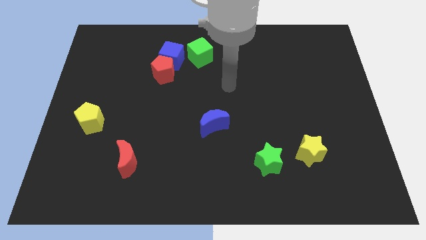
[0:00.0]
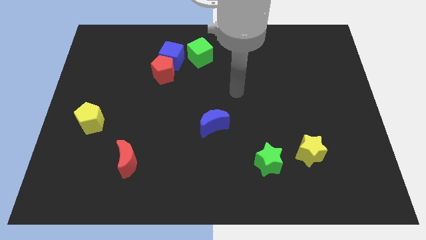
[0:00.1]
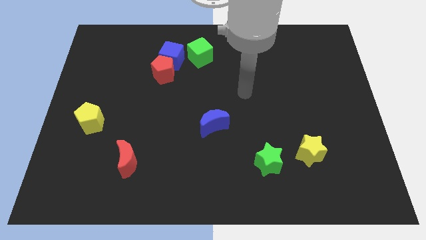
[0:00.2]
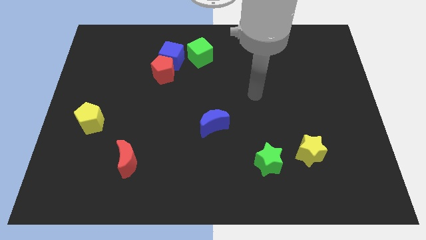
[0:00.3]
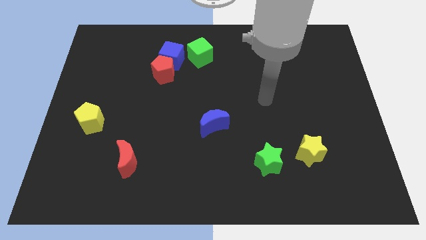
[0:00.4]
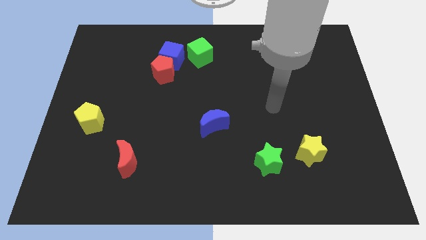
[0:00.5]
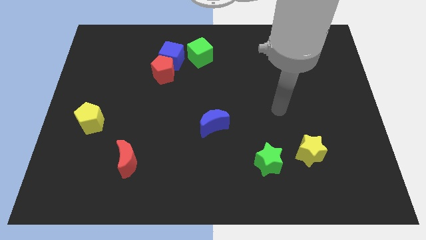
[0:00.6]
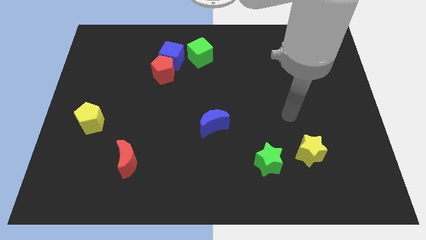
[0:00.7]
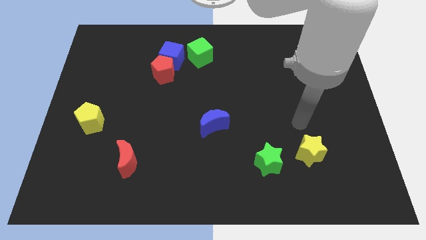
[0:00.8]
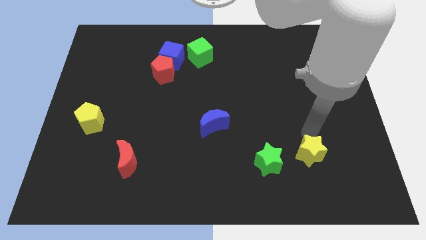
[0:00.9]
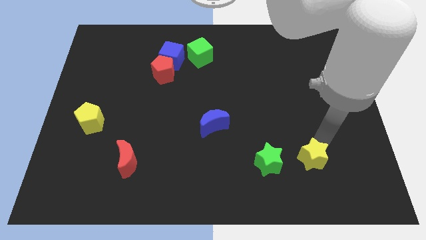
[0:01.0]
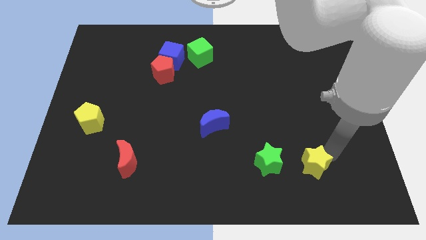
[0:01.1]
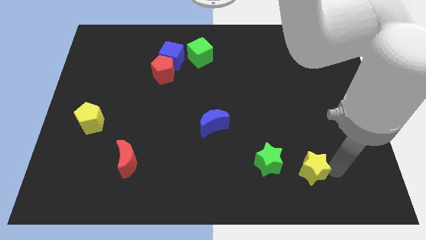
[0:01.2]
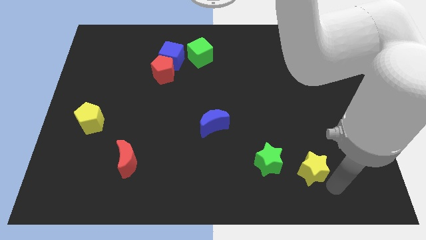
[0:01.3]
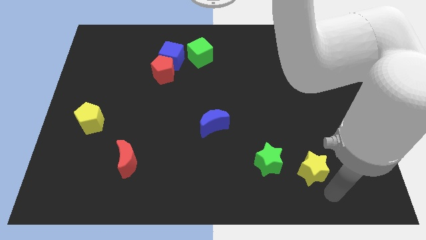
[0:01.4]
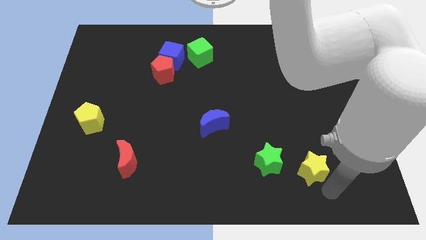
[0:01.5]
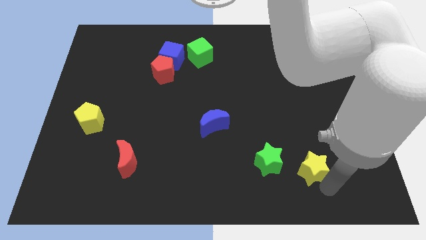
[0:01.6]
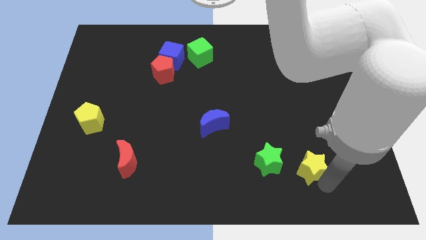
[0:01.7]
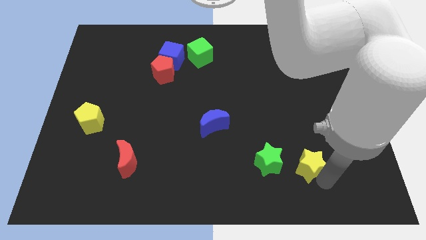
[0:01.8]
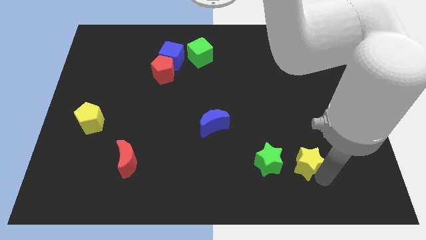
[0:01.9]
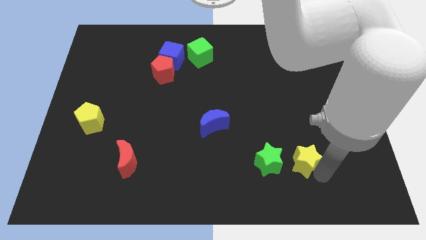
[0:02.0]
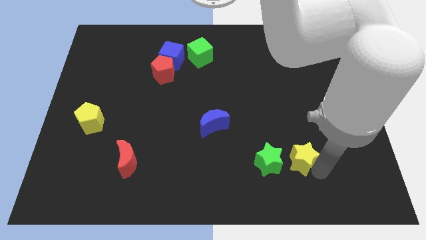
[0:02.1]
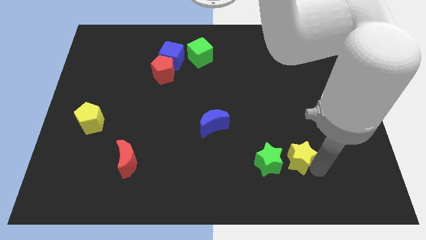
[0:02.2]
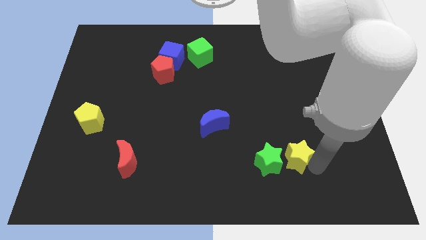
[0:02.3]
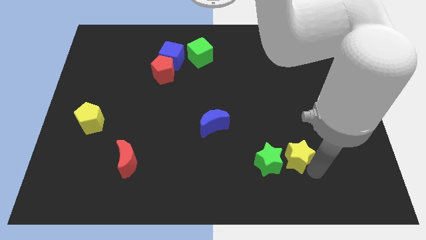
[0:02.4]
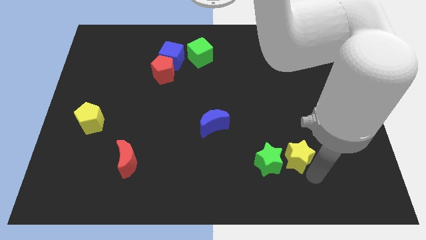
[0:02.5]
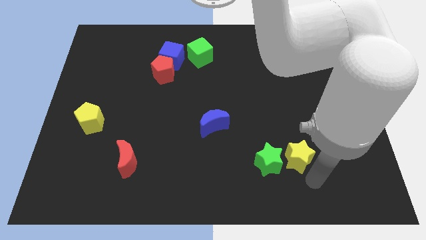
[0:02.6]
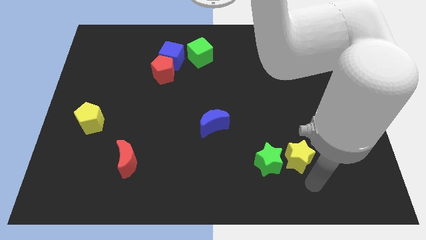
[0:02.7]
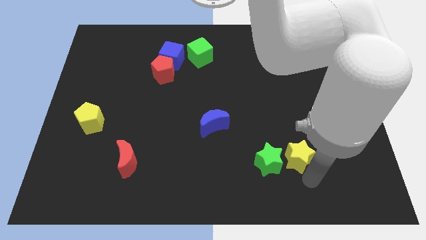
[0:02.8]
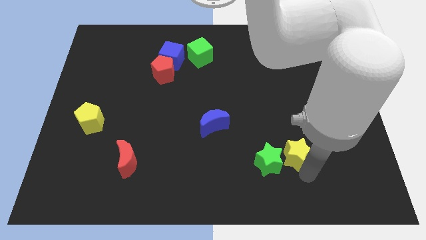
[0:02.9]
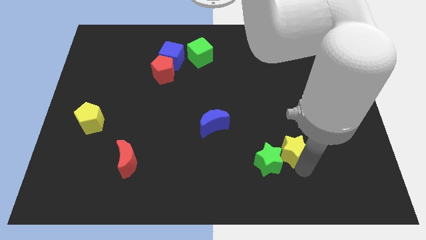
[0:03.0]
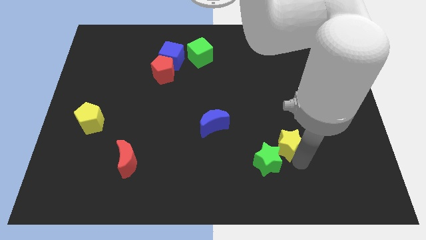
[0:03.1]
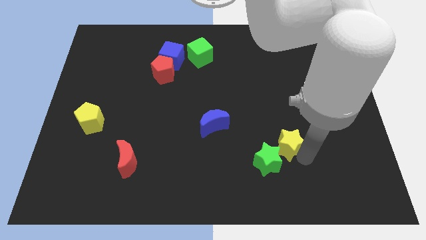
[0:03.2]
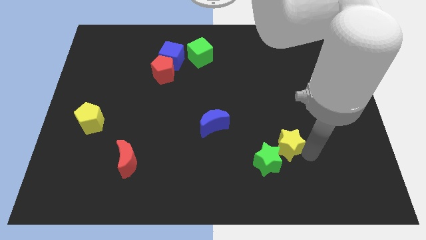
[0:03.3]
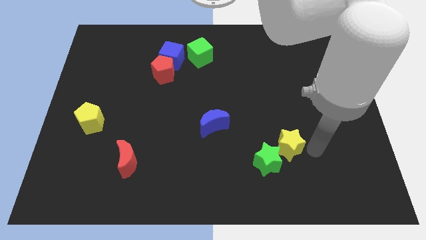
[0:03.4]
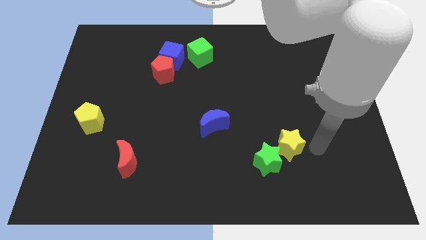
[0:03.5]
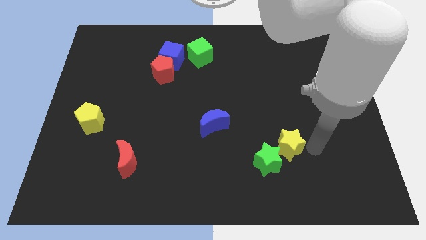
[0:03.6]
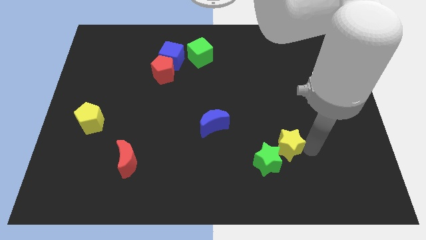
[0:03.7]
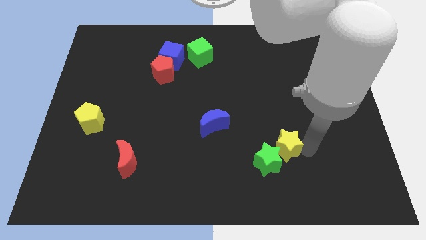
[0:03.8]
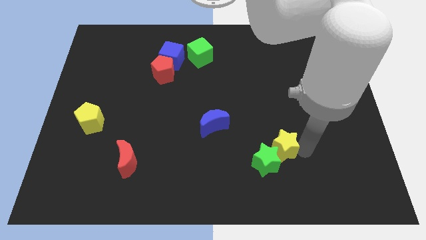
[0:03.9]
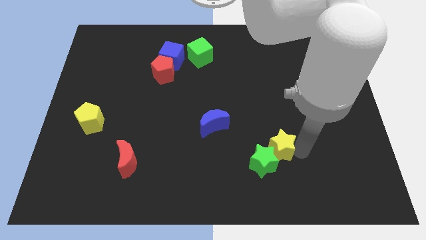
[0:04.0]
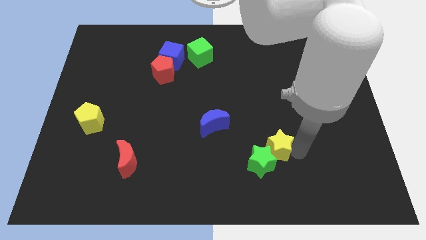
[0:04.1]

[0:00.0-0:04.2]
slightly slide the yellow star left

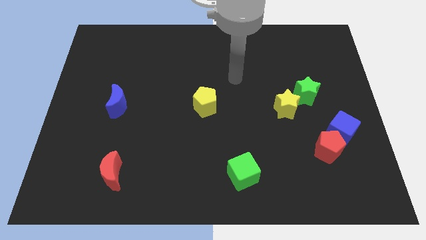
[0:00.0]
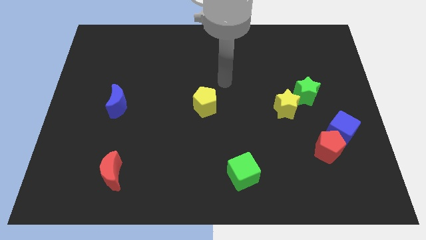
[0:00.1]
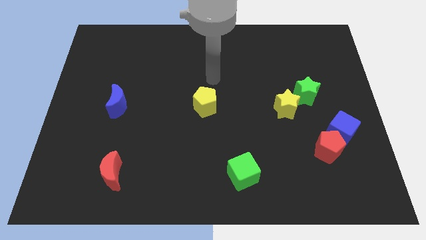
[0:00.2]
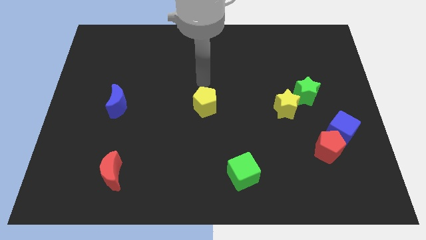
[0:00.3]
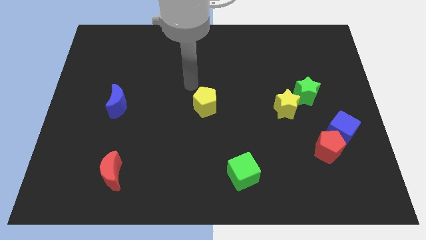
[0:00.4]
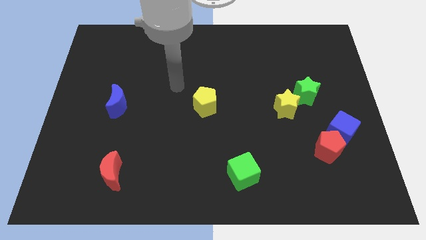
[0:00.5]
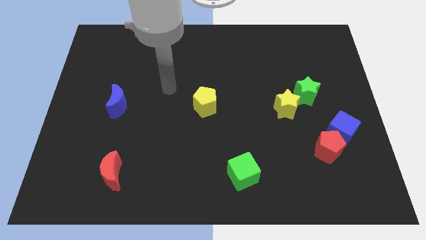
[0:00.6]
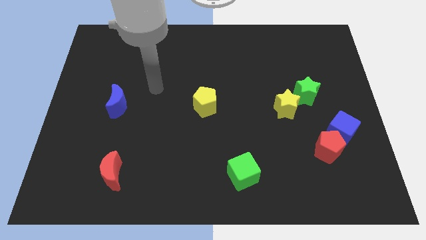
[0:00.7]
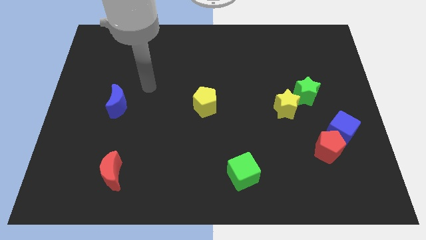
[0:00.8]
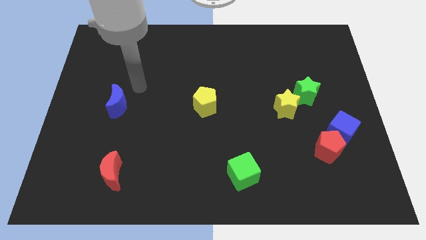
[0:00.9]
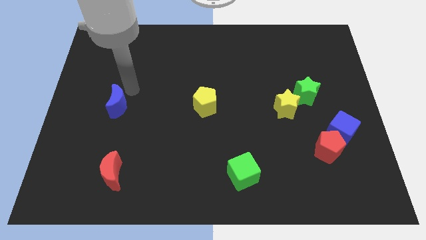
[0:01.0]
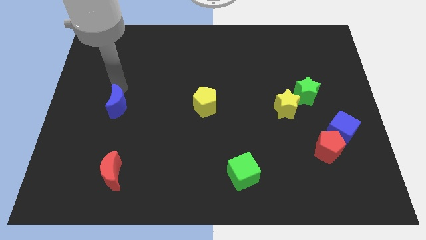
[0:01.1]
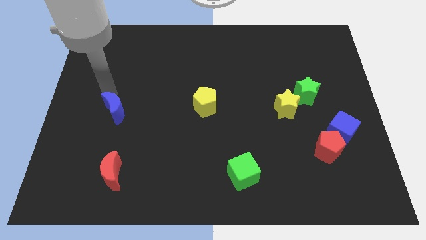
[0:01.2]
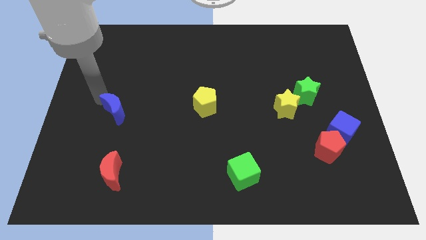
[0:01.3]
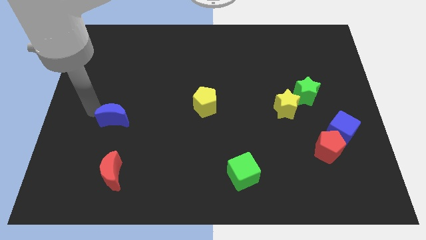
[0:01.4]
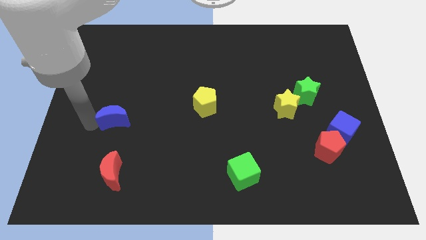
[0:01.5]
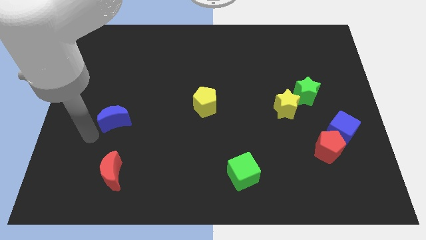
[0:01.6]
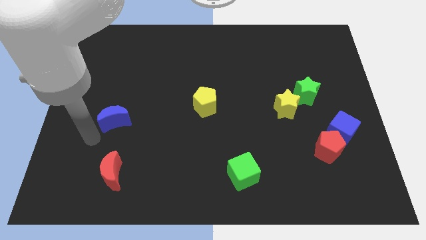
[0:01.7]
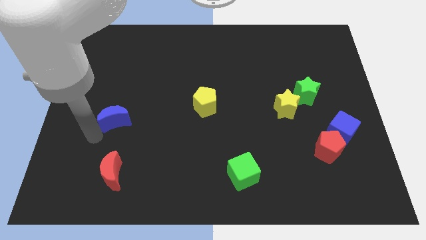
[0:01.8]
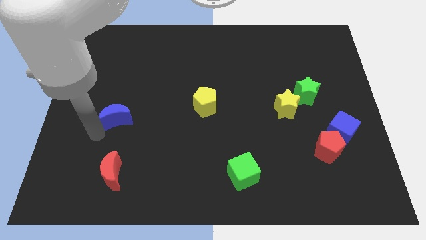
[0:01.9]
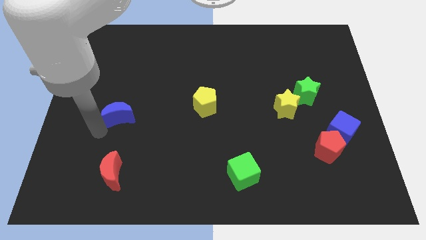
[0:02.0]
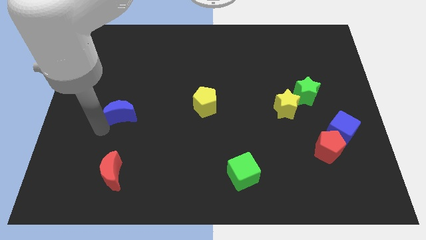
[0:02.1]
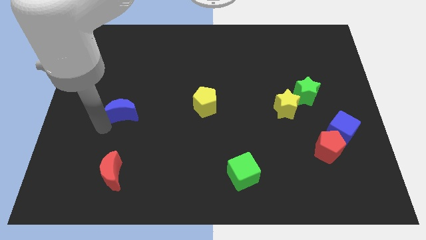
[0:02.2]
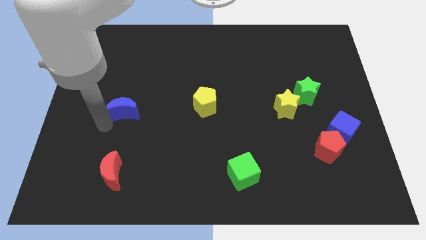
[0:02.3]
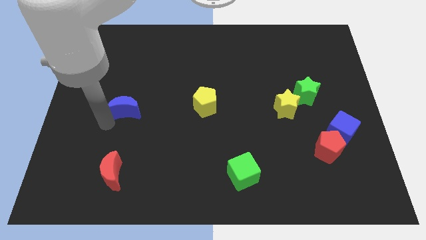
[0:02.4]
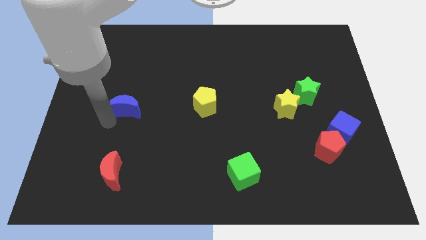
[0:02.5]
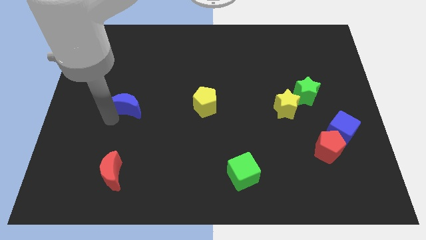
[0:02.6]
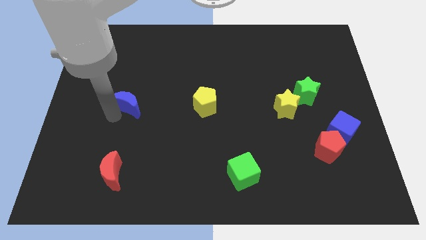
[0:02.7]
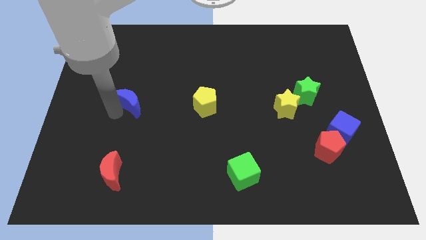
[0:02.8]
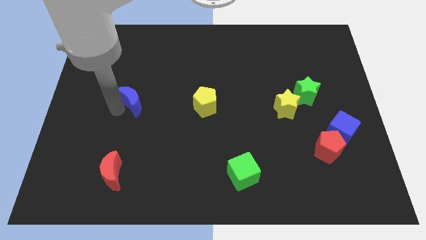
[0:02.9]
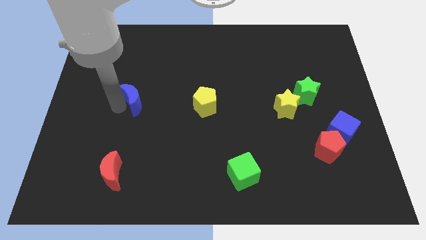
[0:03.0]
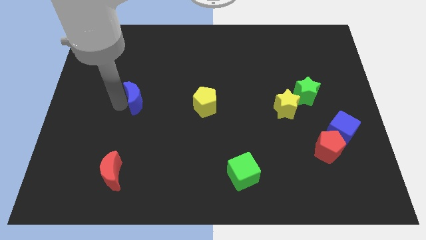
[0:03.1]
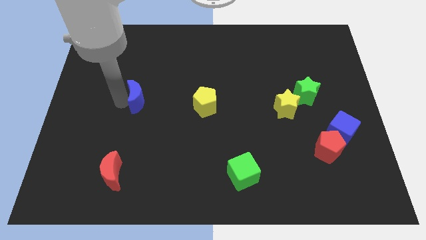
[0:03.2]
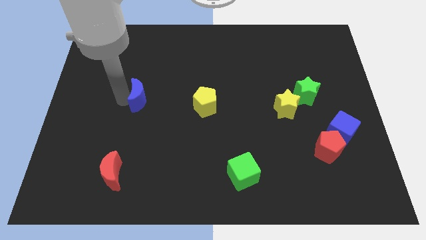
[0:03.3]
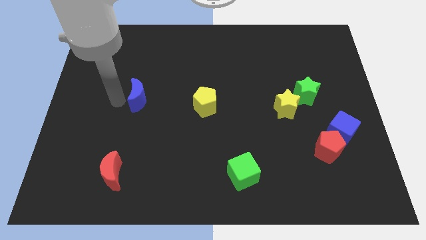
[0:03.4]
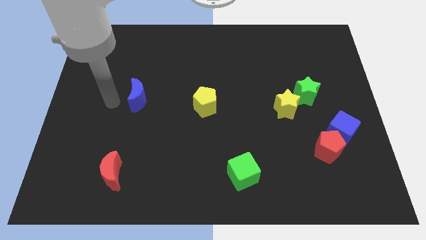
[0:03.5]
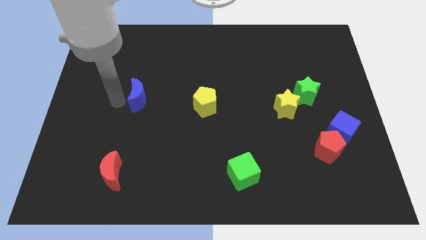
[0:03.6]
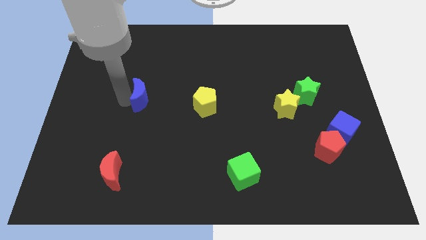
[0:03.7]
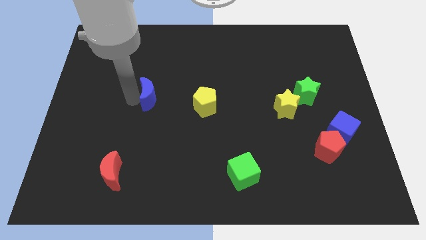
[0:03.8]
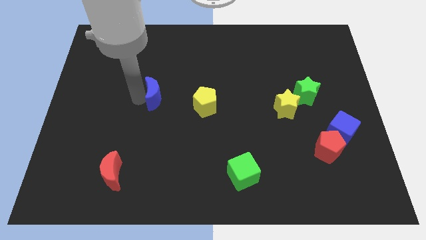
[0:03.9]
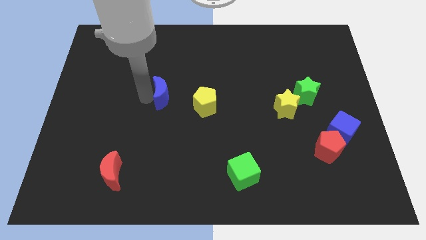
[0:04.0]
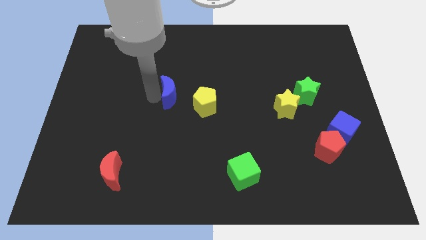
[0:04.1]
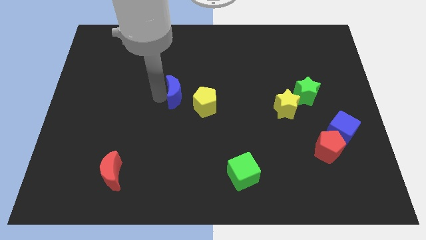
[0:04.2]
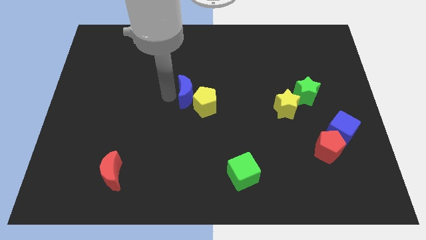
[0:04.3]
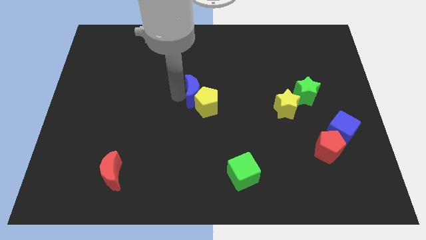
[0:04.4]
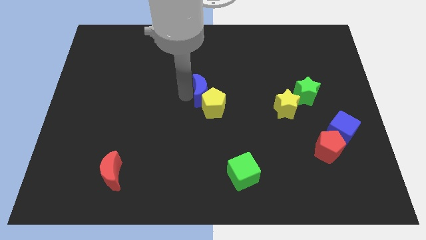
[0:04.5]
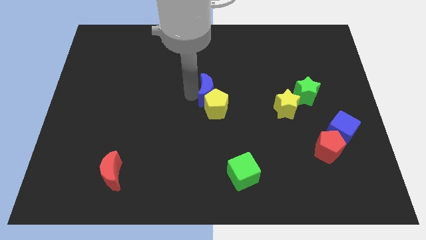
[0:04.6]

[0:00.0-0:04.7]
push the blue moon right
